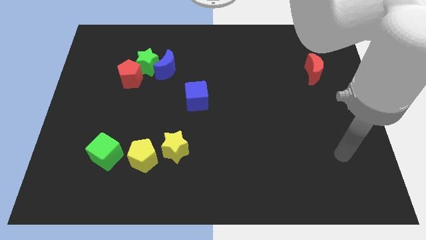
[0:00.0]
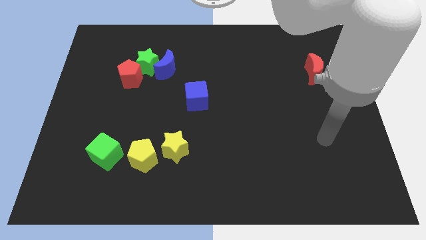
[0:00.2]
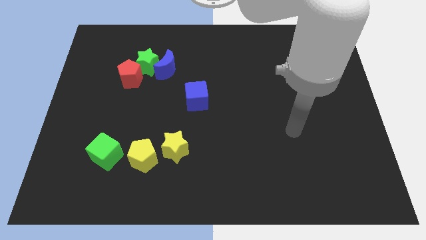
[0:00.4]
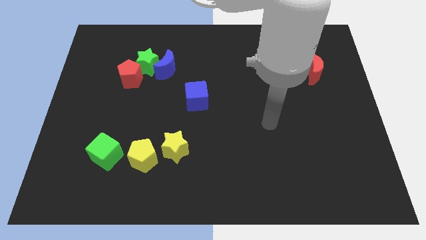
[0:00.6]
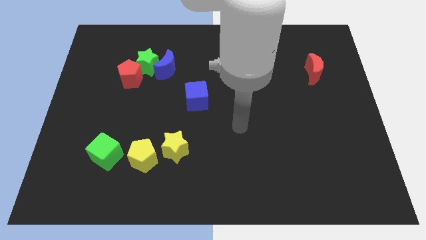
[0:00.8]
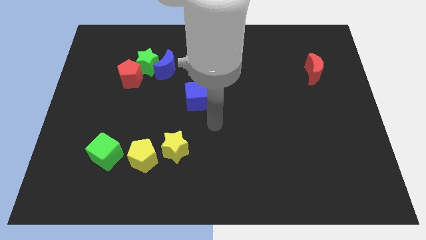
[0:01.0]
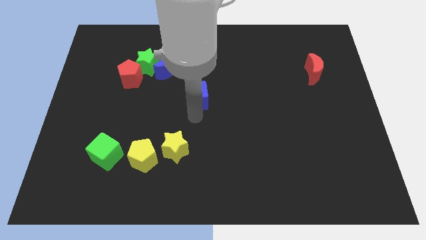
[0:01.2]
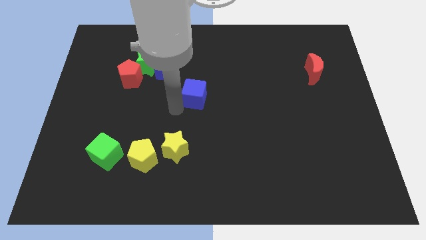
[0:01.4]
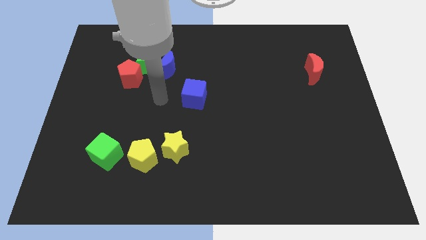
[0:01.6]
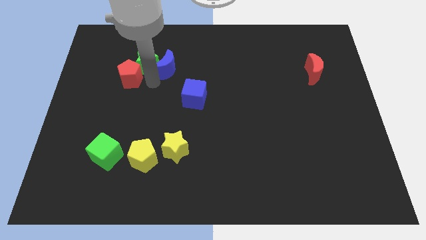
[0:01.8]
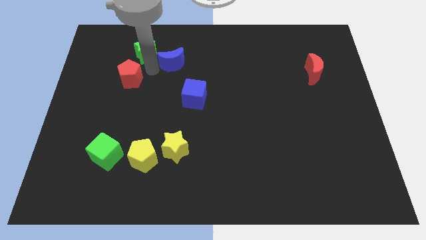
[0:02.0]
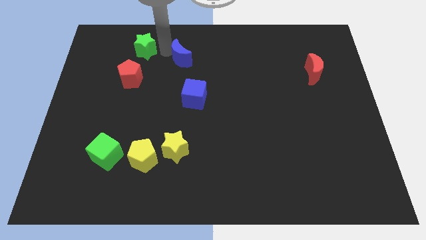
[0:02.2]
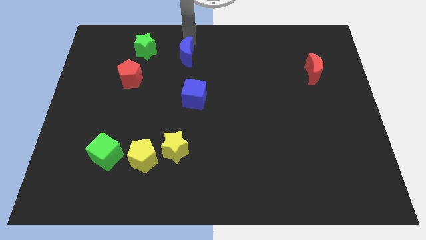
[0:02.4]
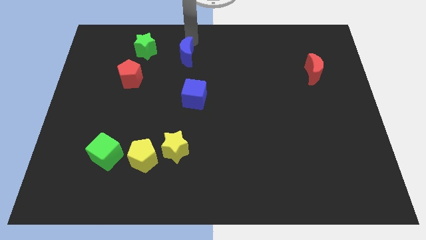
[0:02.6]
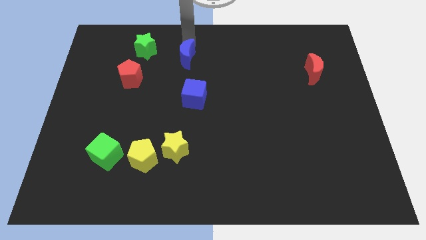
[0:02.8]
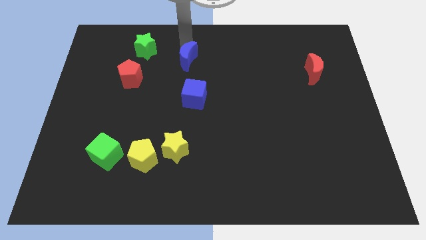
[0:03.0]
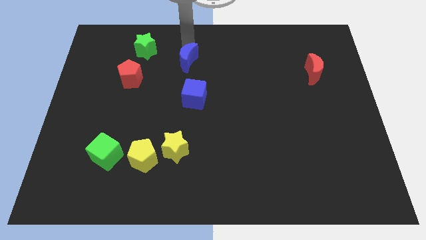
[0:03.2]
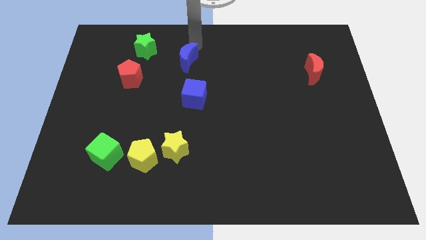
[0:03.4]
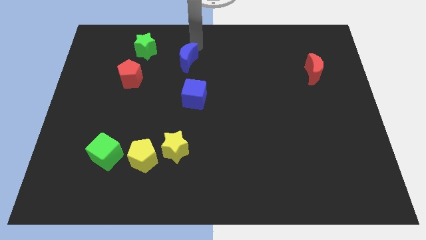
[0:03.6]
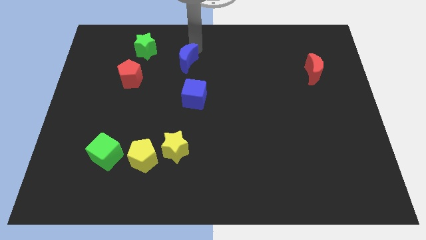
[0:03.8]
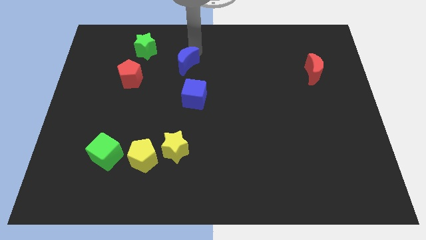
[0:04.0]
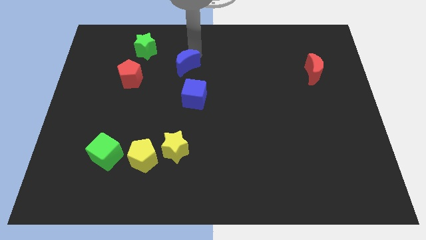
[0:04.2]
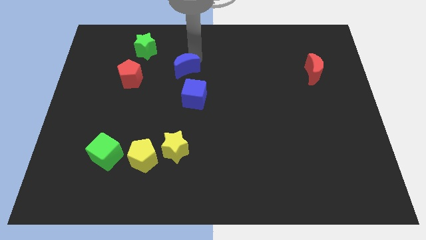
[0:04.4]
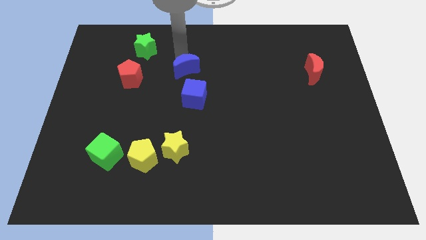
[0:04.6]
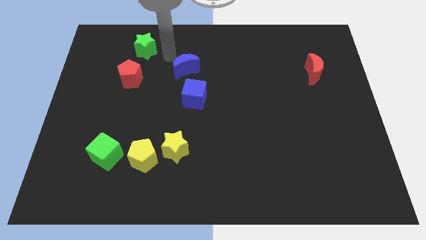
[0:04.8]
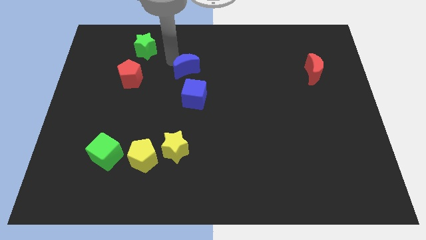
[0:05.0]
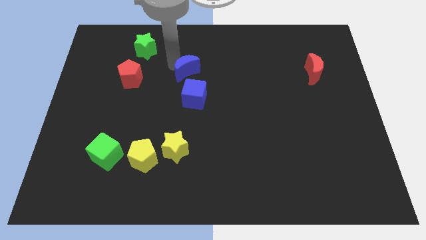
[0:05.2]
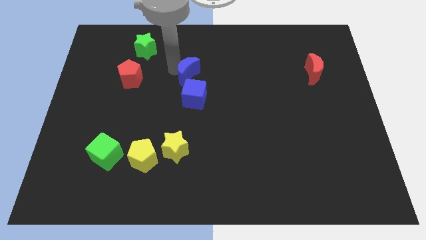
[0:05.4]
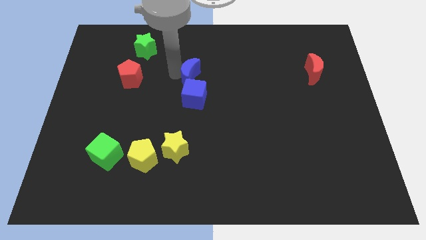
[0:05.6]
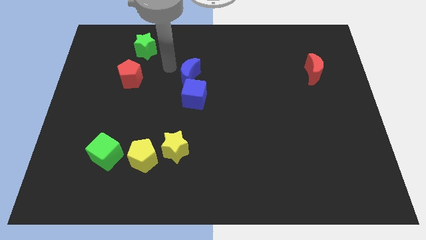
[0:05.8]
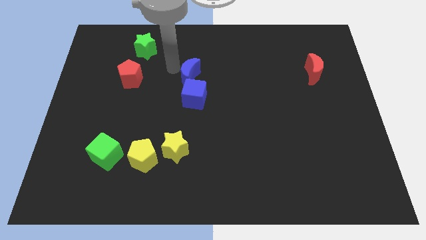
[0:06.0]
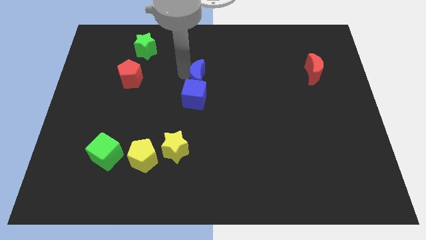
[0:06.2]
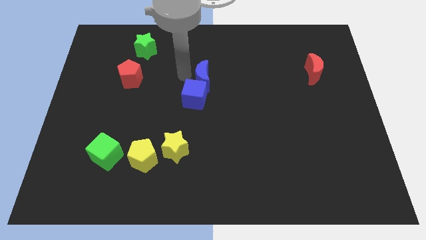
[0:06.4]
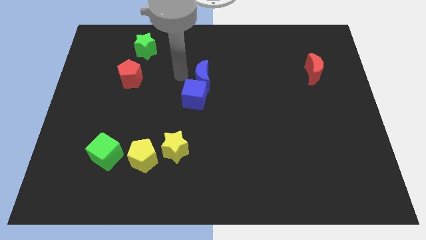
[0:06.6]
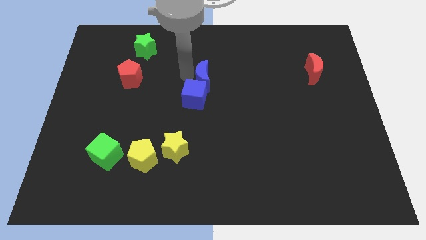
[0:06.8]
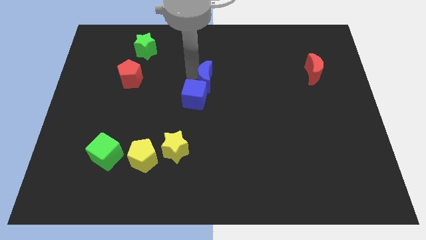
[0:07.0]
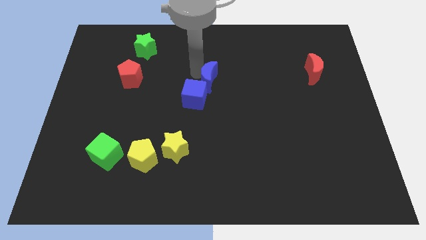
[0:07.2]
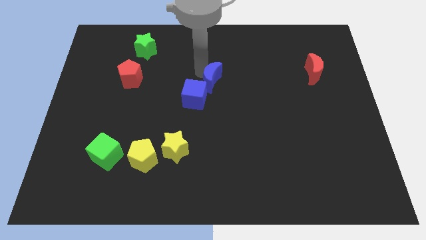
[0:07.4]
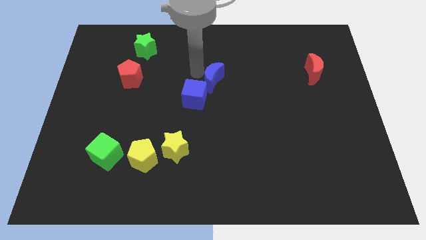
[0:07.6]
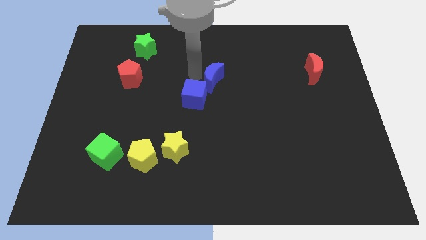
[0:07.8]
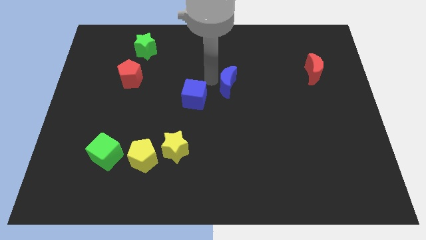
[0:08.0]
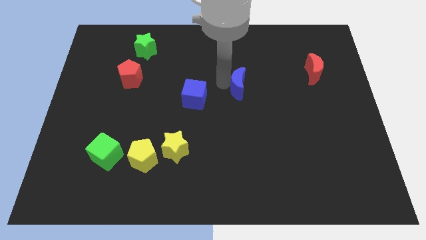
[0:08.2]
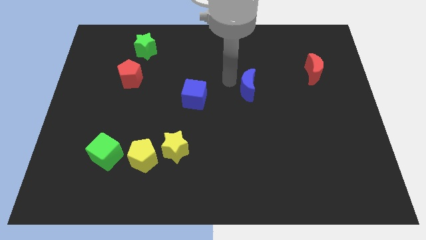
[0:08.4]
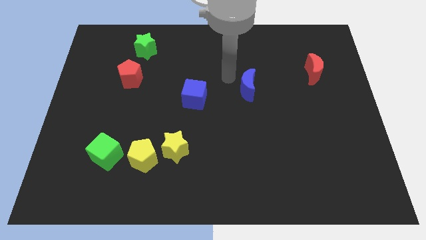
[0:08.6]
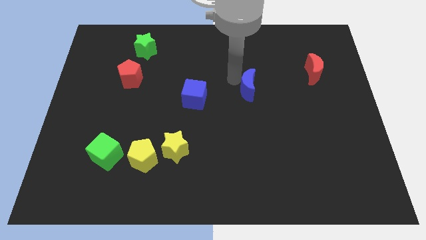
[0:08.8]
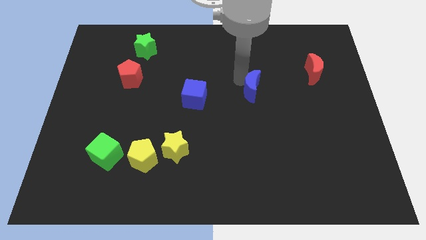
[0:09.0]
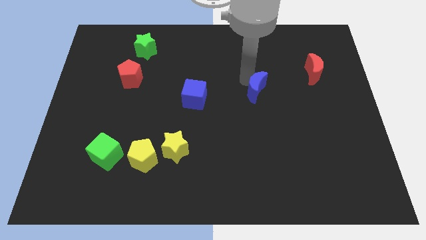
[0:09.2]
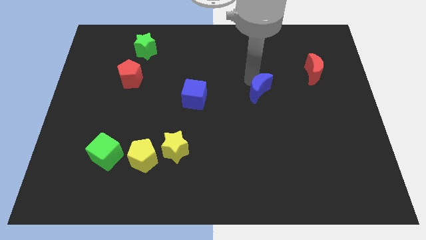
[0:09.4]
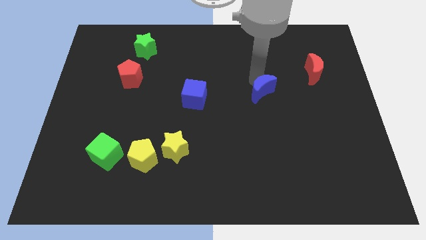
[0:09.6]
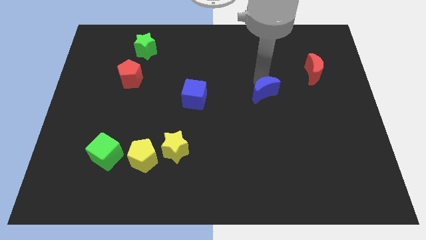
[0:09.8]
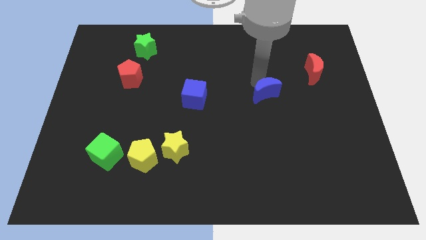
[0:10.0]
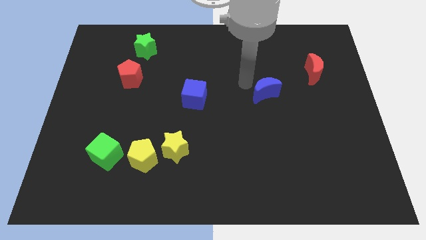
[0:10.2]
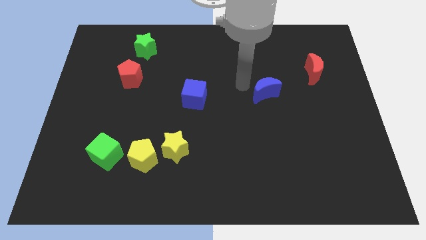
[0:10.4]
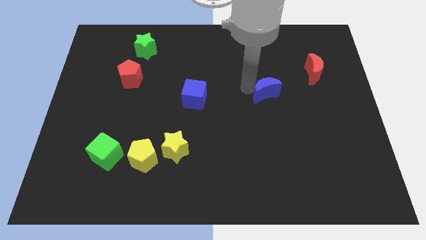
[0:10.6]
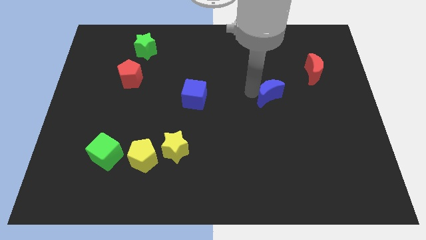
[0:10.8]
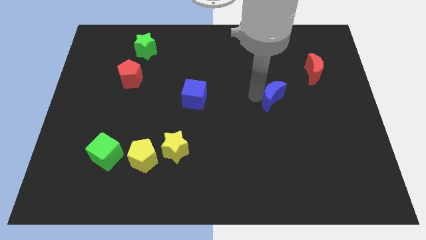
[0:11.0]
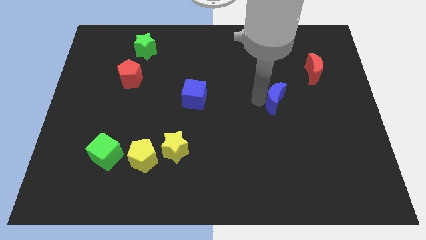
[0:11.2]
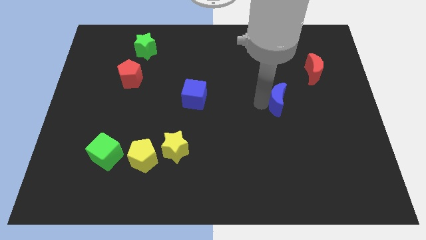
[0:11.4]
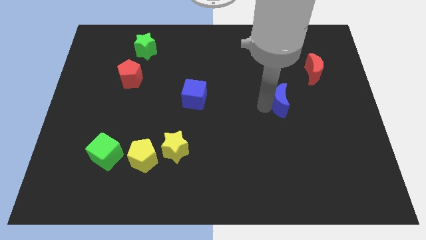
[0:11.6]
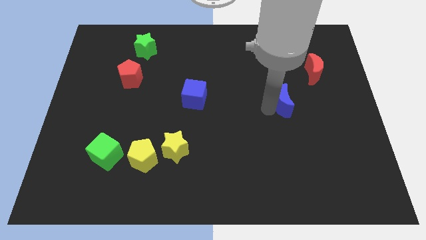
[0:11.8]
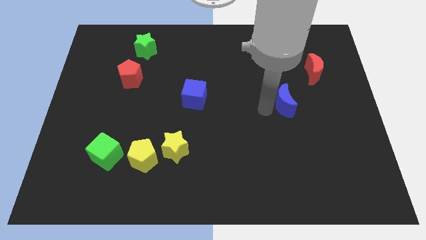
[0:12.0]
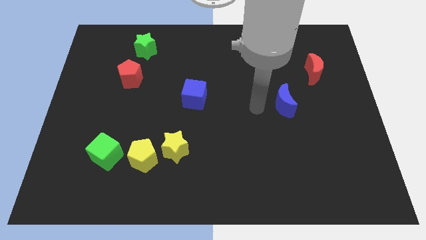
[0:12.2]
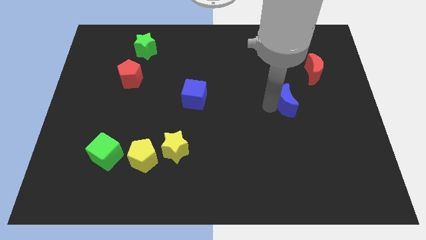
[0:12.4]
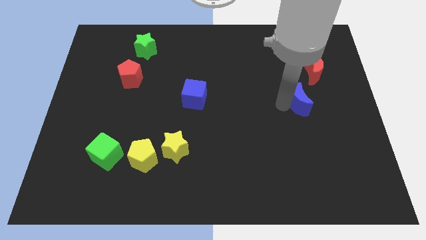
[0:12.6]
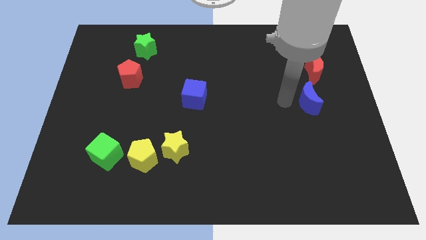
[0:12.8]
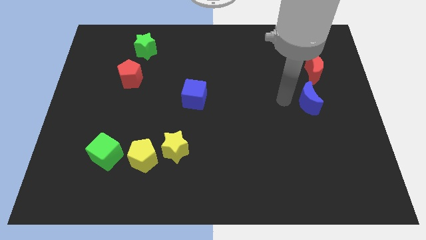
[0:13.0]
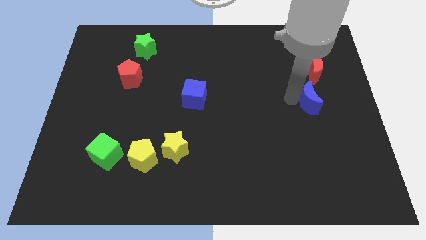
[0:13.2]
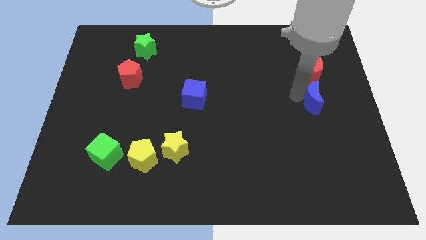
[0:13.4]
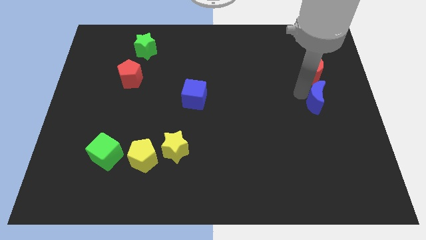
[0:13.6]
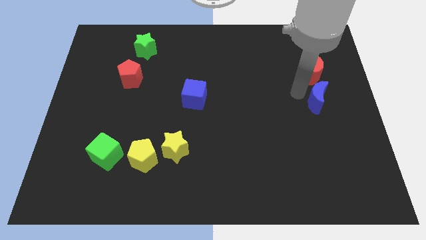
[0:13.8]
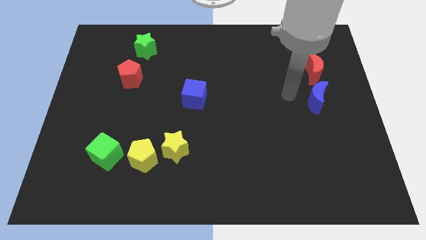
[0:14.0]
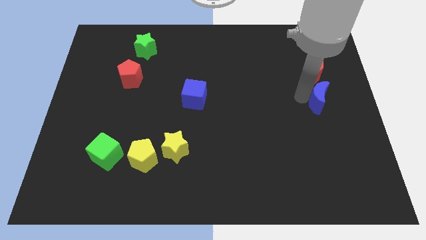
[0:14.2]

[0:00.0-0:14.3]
slide the blue moon to the right side
